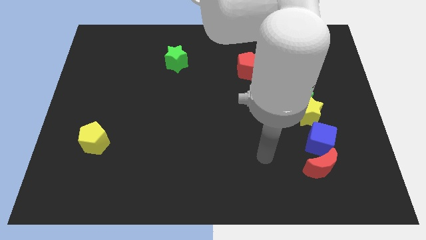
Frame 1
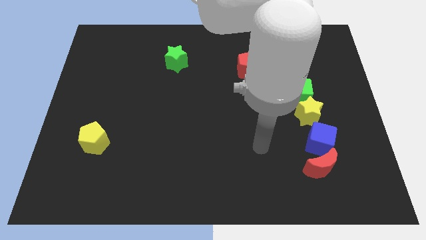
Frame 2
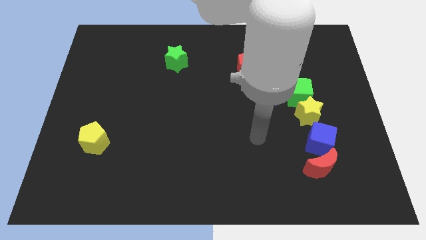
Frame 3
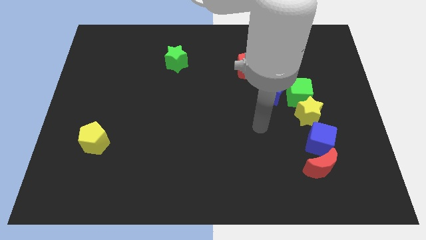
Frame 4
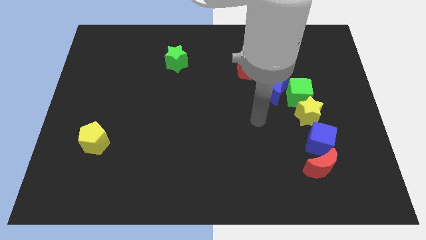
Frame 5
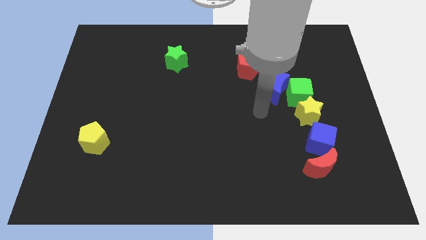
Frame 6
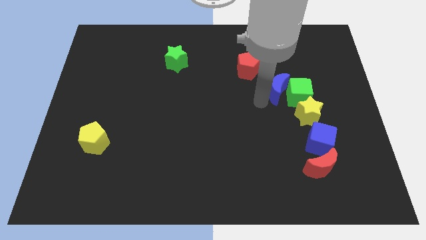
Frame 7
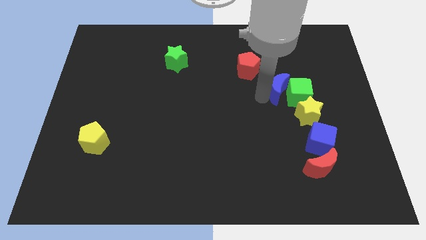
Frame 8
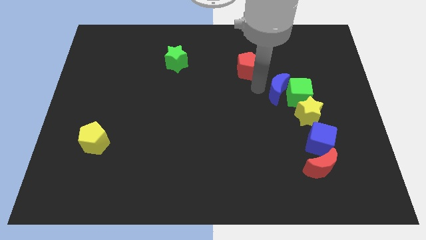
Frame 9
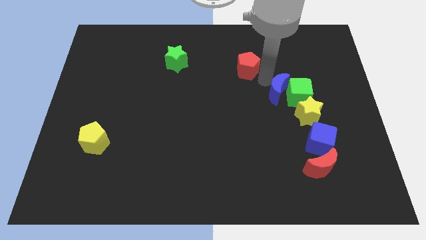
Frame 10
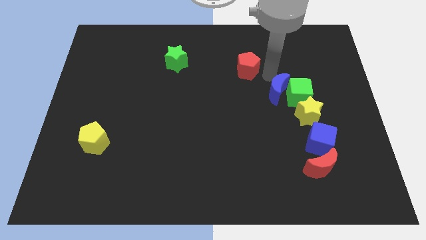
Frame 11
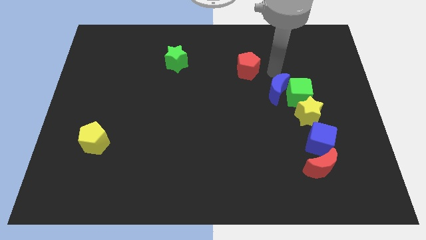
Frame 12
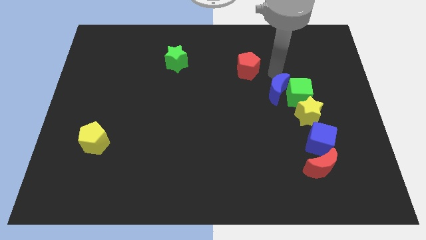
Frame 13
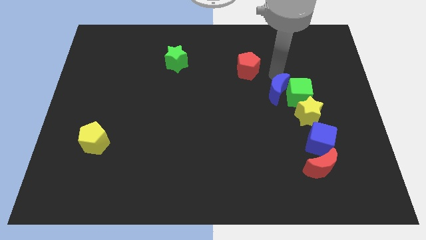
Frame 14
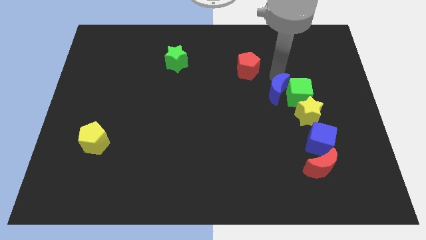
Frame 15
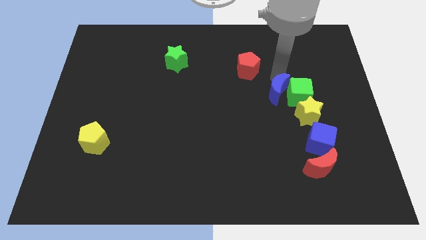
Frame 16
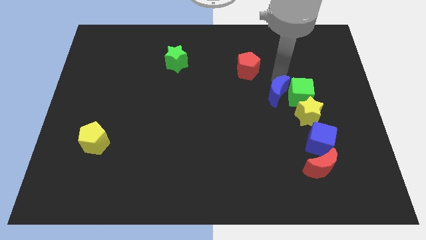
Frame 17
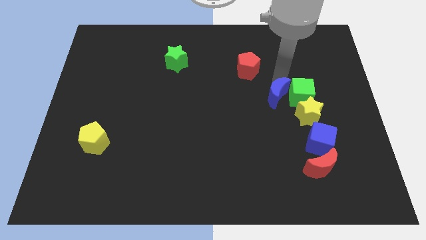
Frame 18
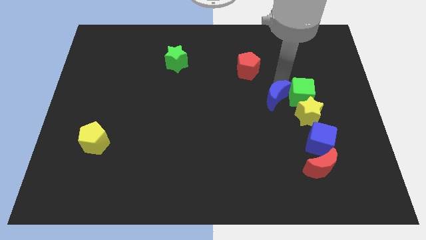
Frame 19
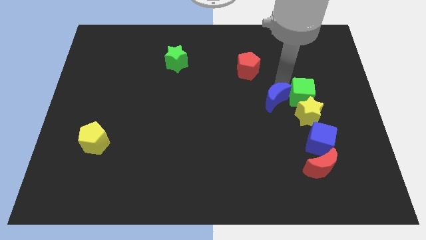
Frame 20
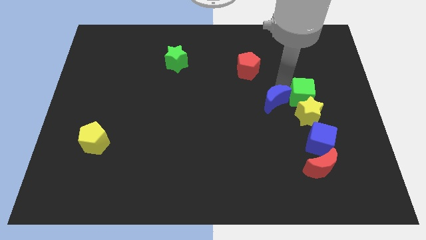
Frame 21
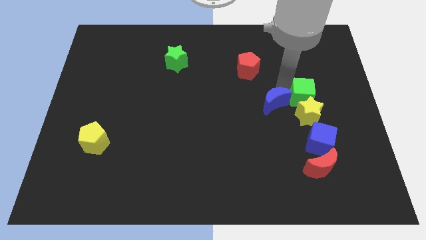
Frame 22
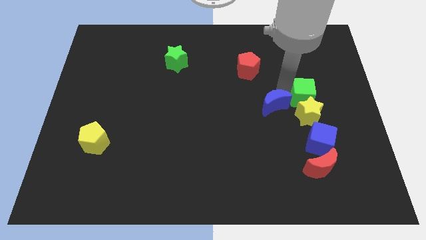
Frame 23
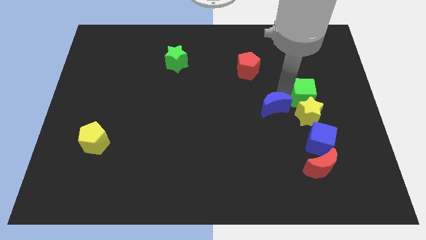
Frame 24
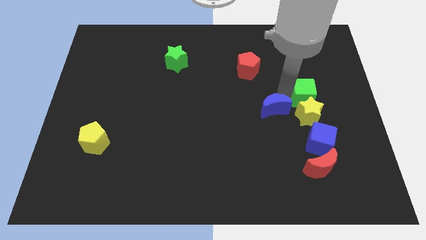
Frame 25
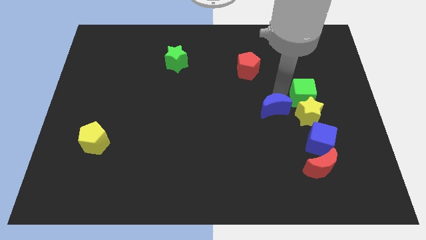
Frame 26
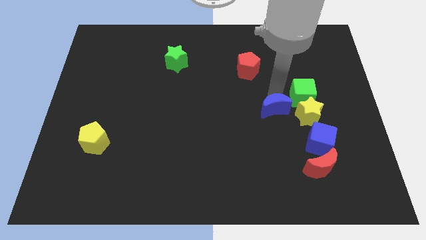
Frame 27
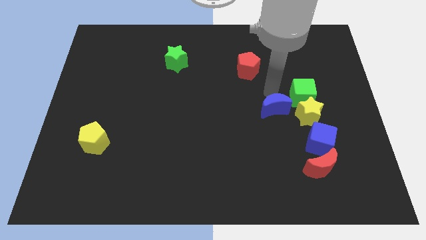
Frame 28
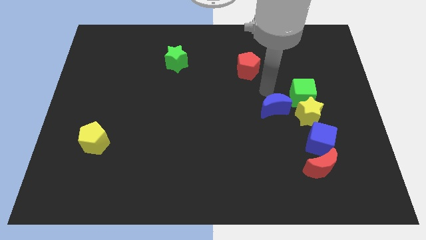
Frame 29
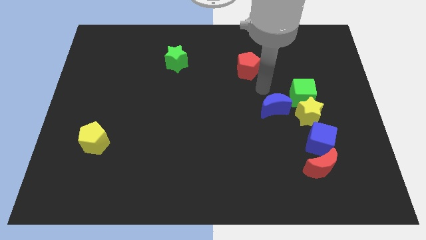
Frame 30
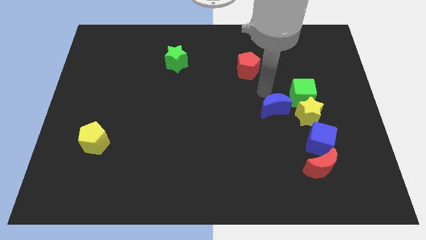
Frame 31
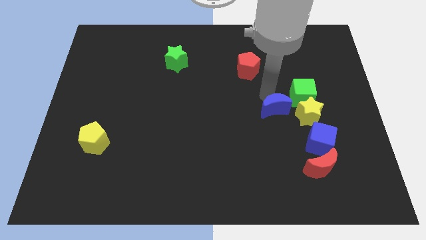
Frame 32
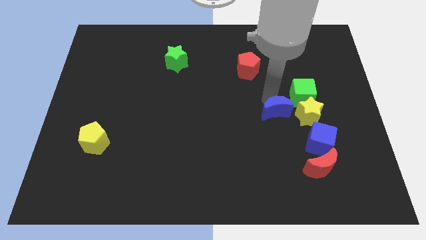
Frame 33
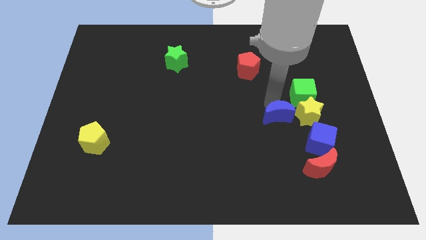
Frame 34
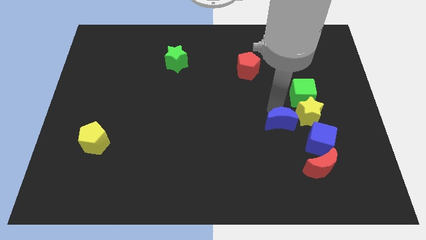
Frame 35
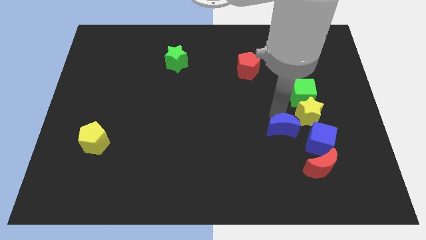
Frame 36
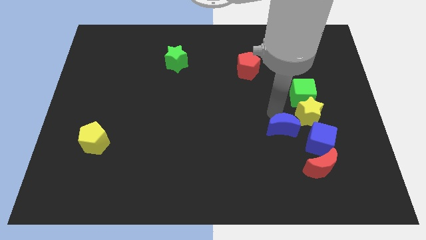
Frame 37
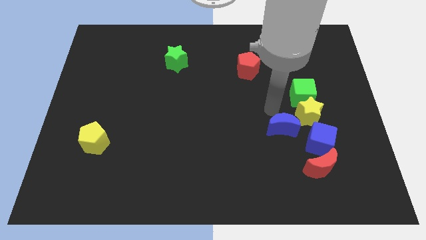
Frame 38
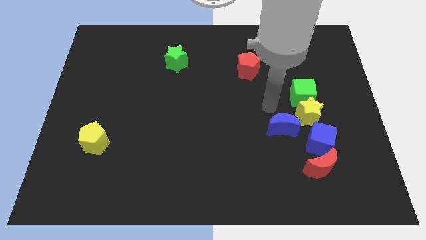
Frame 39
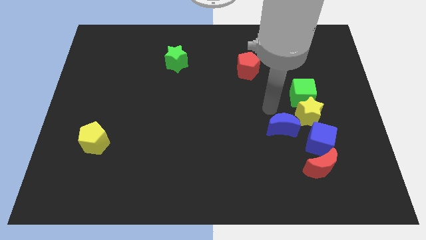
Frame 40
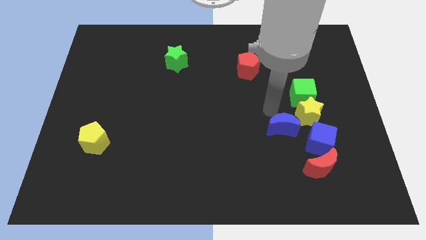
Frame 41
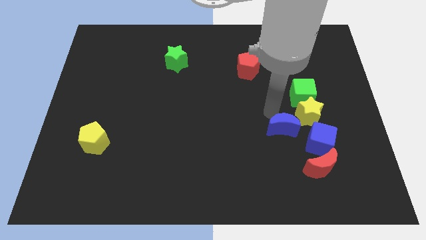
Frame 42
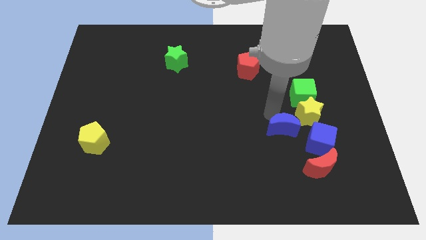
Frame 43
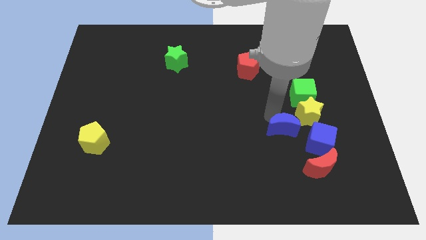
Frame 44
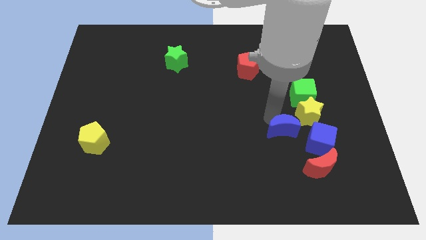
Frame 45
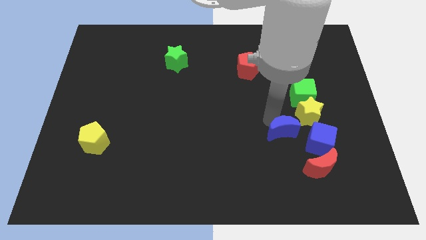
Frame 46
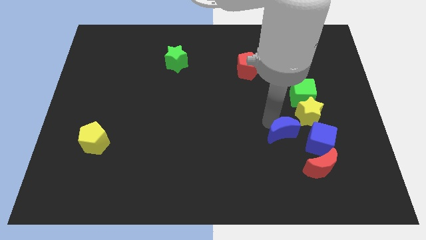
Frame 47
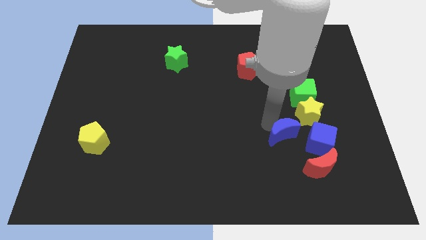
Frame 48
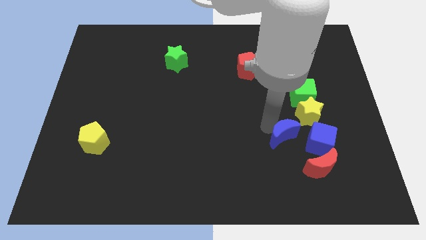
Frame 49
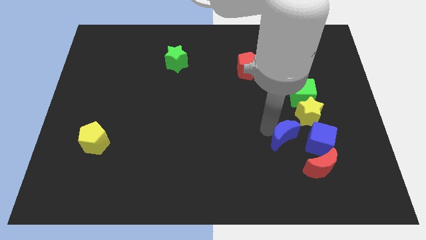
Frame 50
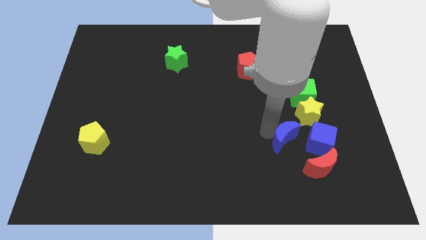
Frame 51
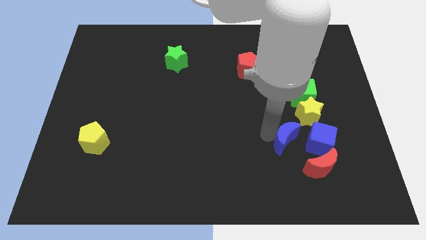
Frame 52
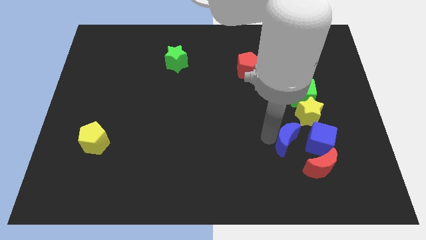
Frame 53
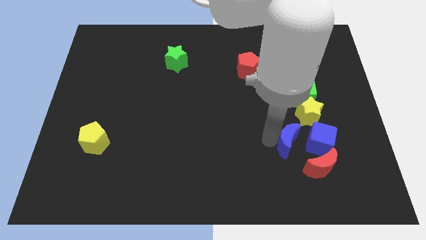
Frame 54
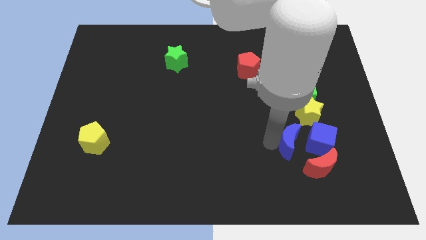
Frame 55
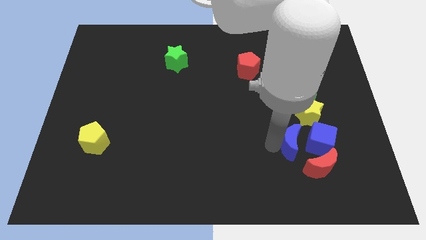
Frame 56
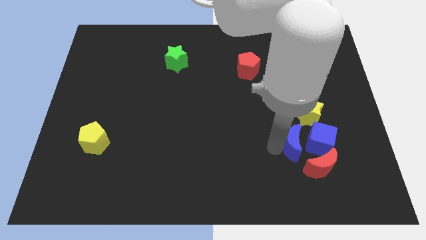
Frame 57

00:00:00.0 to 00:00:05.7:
push the blue moon to the bottom of the green cube

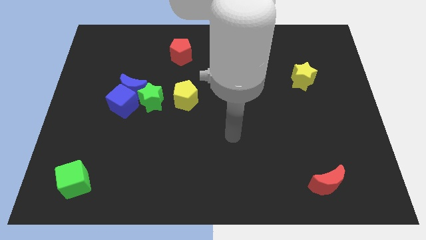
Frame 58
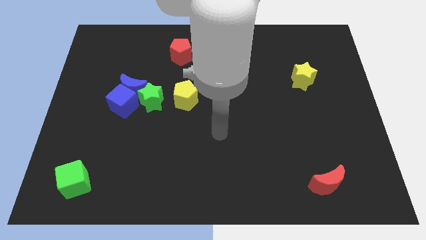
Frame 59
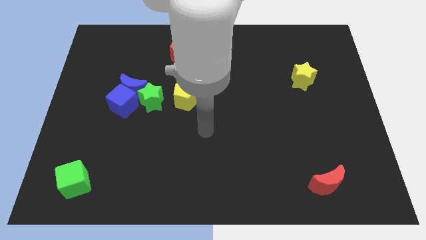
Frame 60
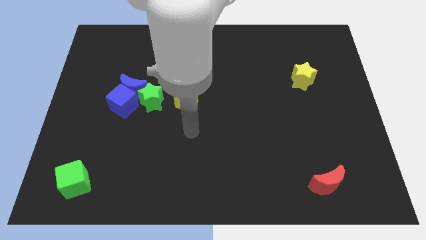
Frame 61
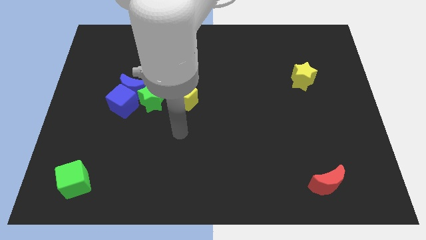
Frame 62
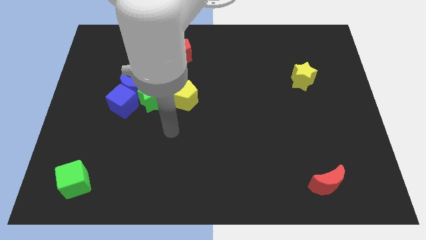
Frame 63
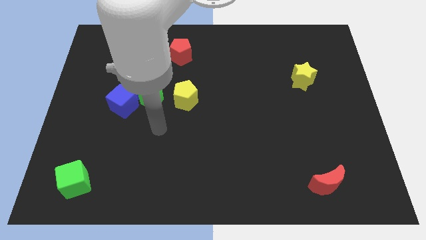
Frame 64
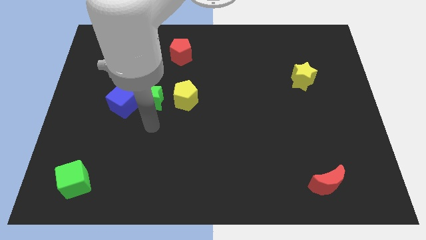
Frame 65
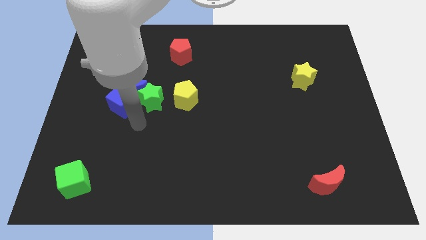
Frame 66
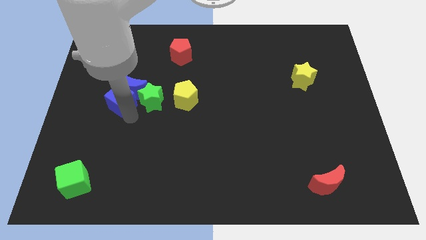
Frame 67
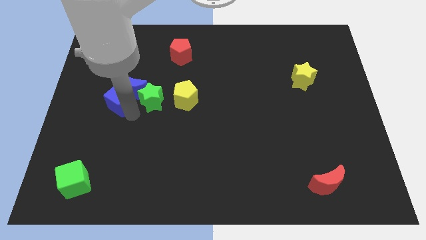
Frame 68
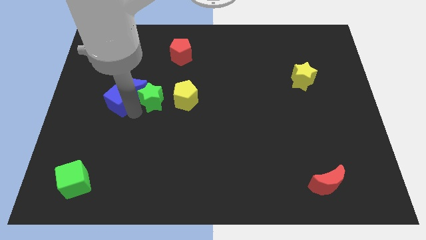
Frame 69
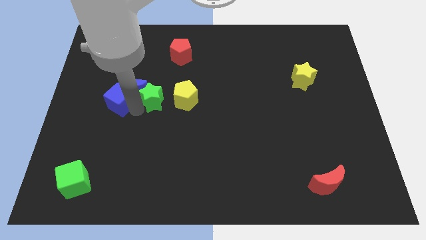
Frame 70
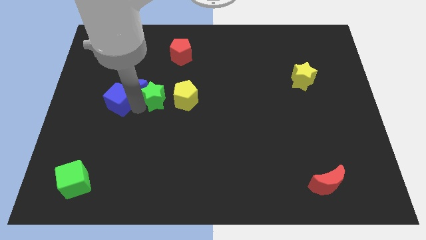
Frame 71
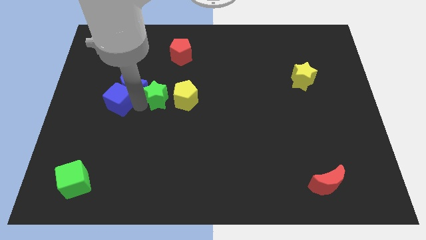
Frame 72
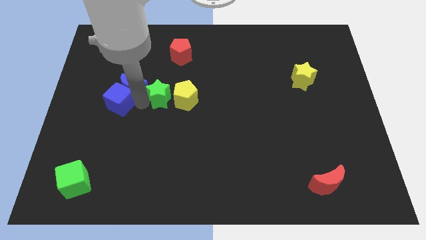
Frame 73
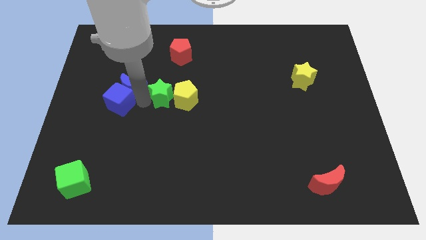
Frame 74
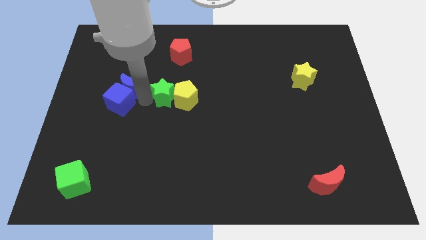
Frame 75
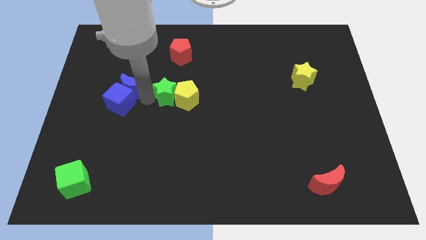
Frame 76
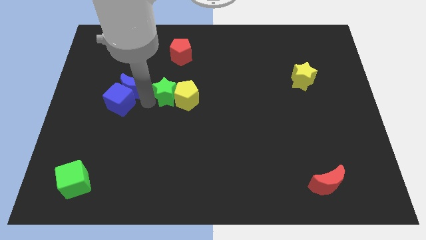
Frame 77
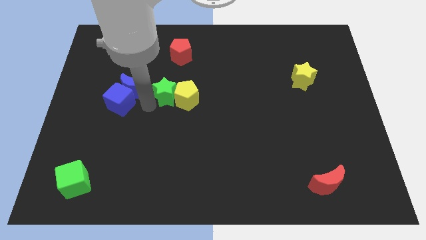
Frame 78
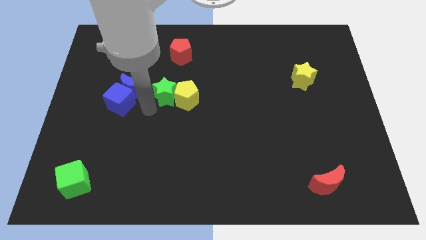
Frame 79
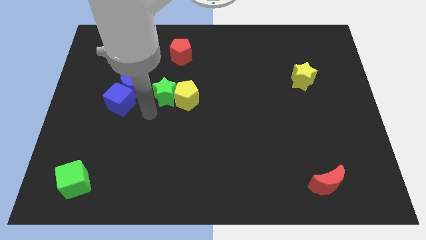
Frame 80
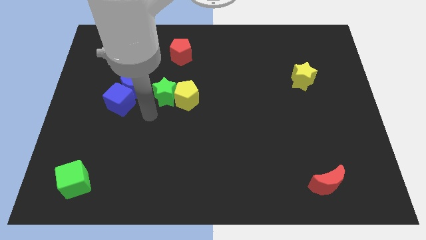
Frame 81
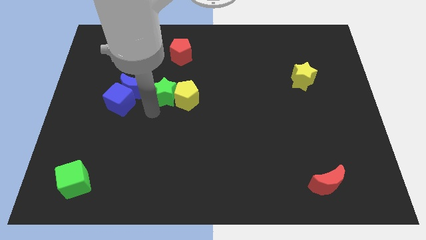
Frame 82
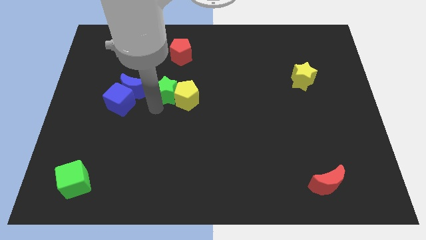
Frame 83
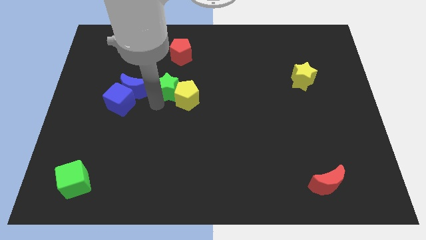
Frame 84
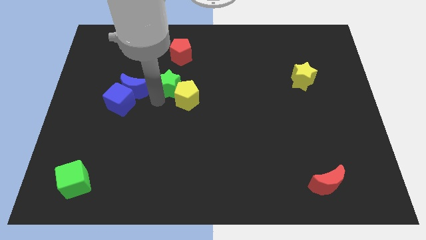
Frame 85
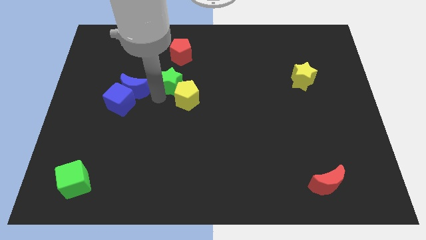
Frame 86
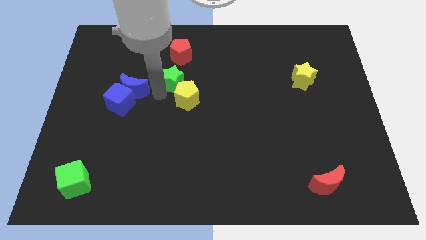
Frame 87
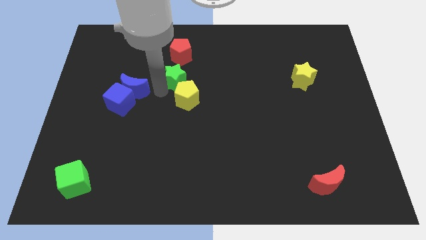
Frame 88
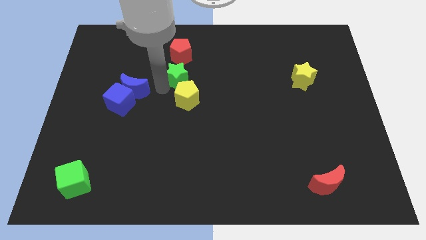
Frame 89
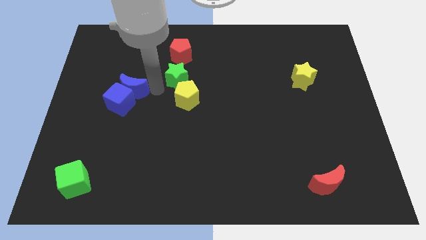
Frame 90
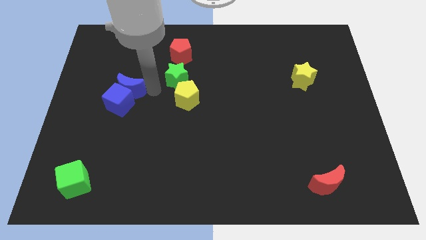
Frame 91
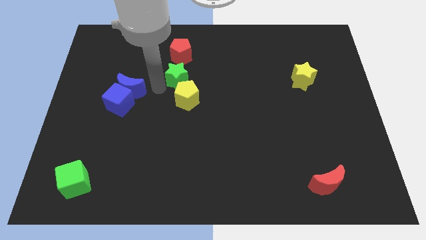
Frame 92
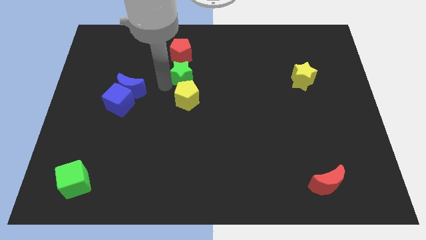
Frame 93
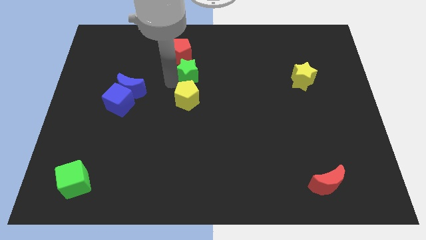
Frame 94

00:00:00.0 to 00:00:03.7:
slide the green star to the bottom right of the red pentagon
